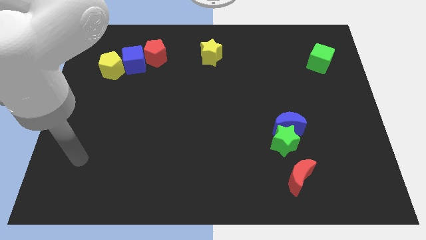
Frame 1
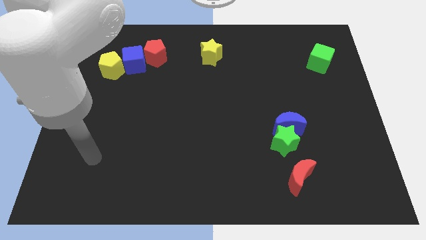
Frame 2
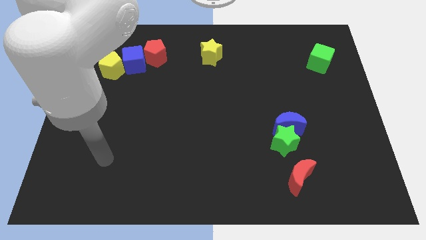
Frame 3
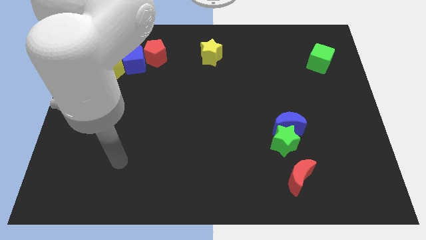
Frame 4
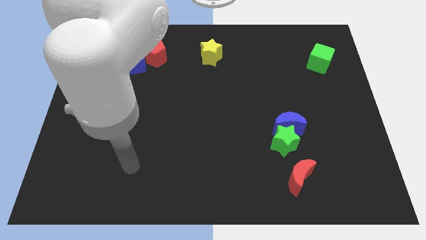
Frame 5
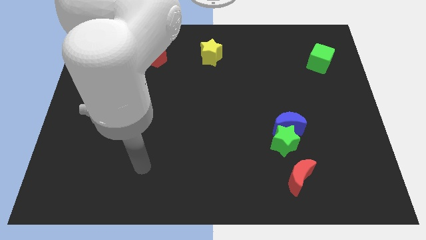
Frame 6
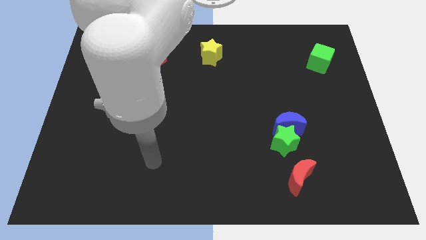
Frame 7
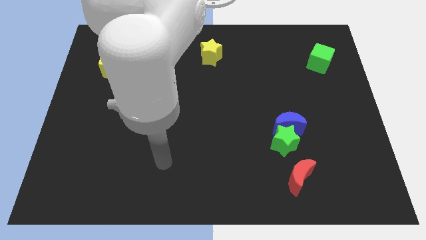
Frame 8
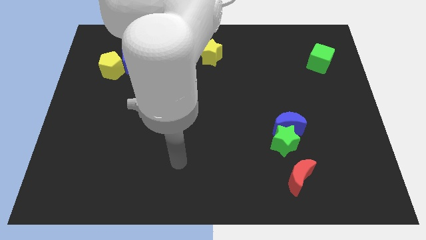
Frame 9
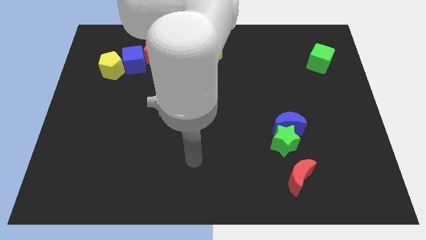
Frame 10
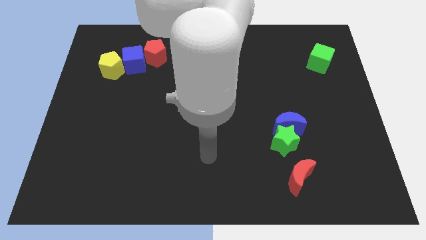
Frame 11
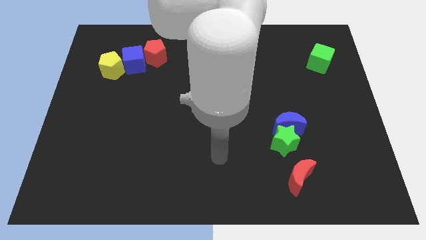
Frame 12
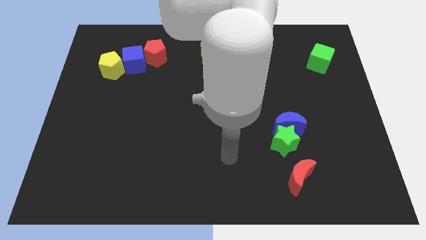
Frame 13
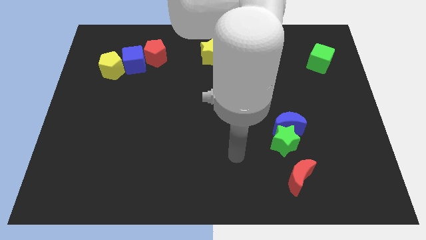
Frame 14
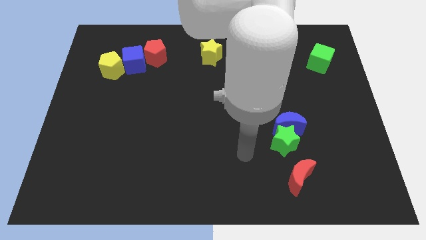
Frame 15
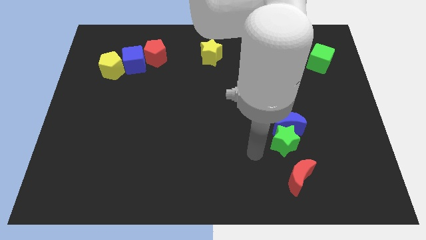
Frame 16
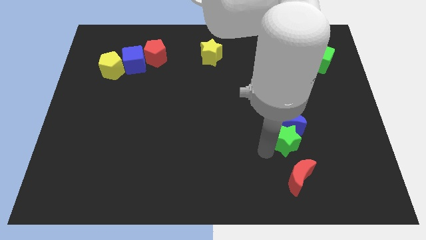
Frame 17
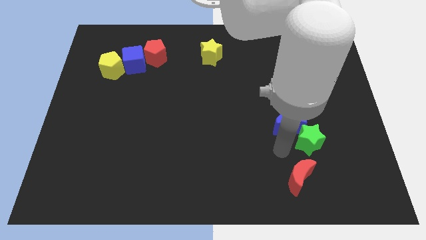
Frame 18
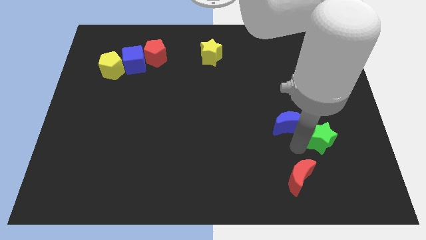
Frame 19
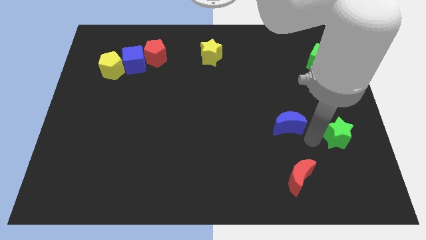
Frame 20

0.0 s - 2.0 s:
separate the blue moon from the green star

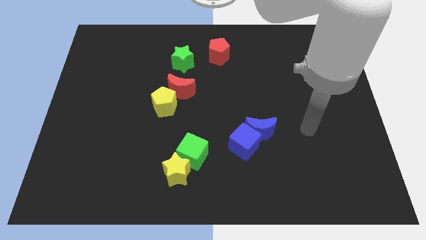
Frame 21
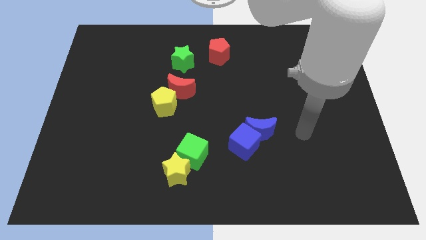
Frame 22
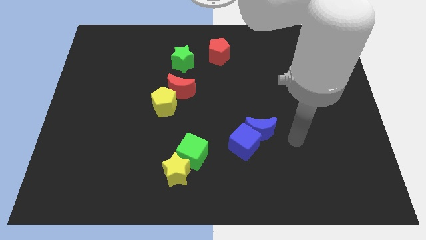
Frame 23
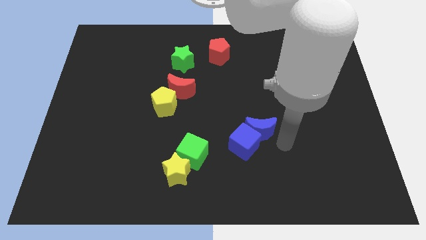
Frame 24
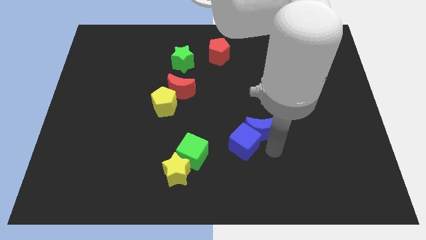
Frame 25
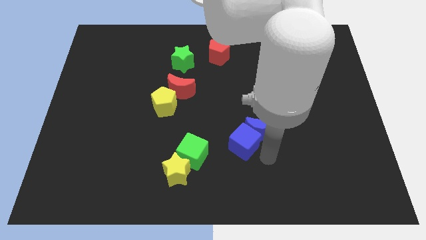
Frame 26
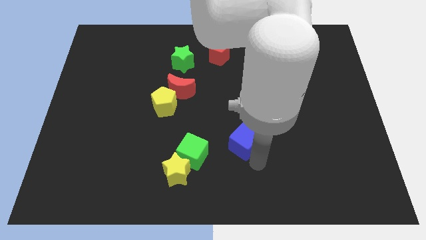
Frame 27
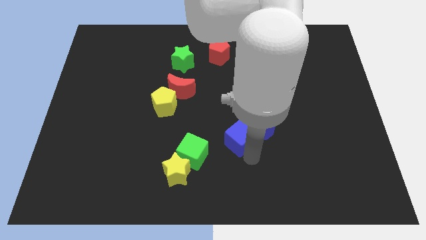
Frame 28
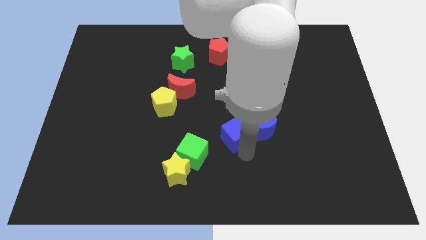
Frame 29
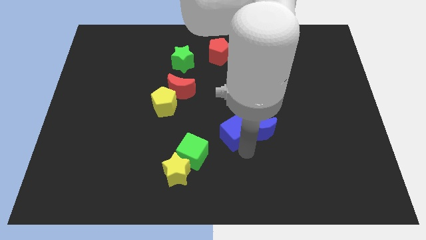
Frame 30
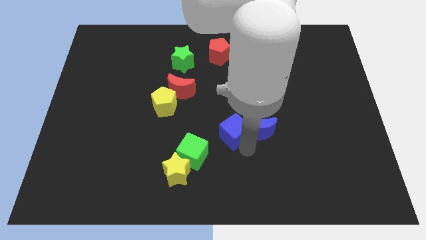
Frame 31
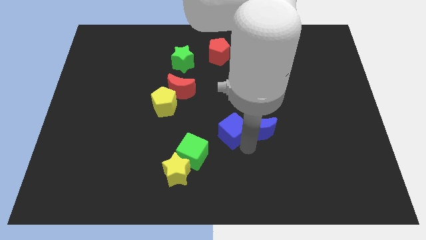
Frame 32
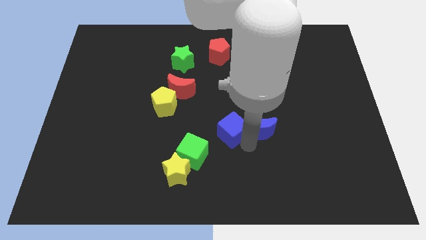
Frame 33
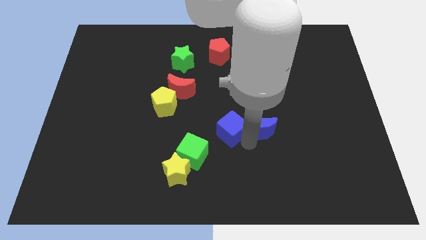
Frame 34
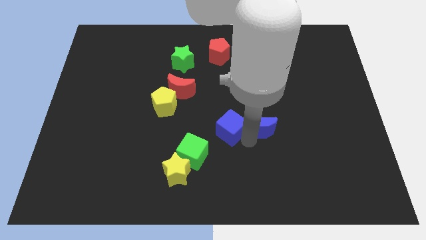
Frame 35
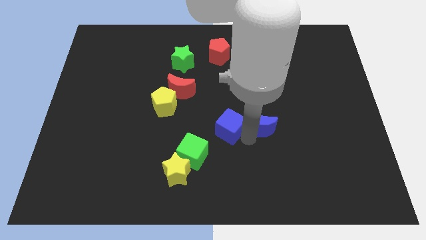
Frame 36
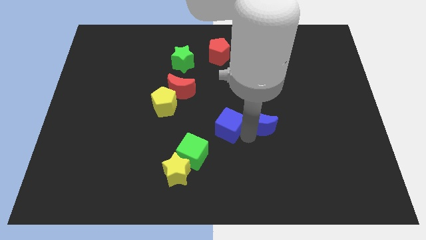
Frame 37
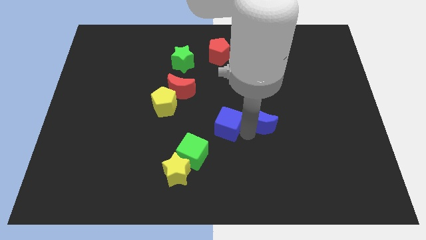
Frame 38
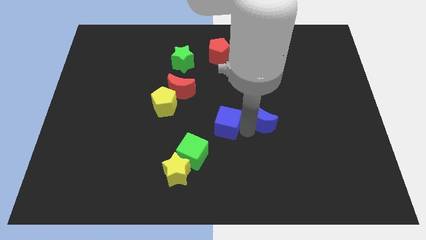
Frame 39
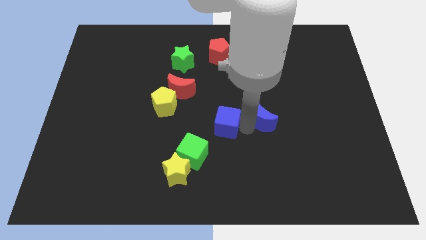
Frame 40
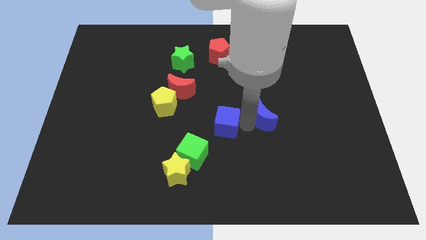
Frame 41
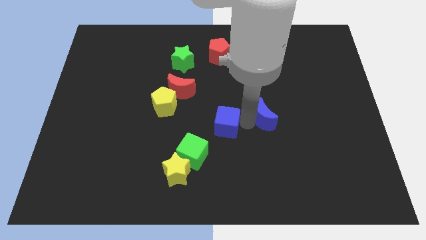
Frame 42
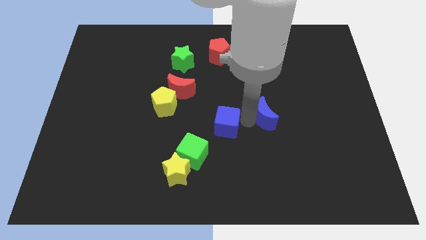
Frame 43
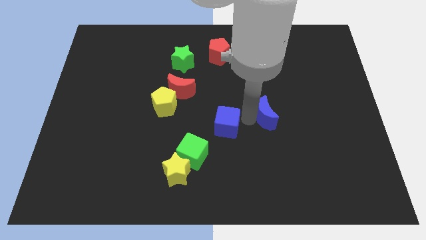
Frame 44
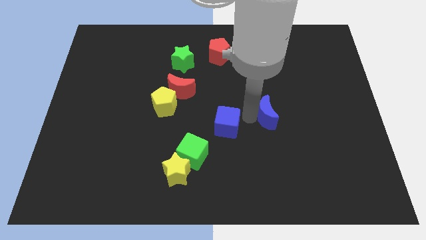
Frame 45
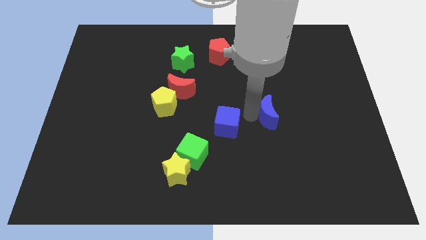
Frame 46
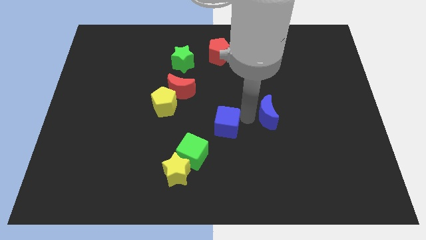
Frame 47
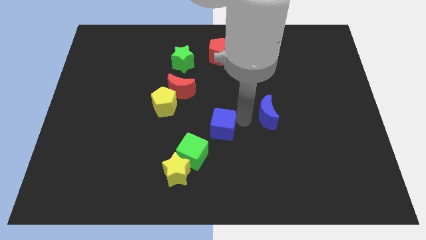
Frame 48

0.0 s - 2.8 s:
pull the blue moon apart from the blue cube

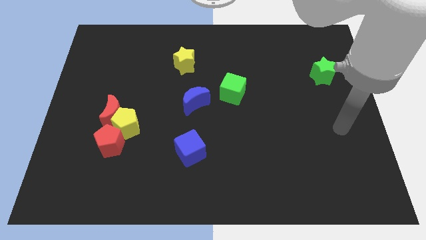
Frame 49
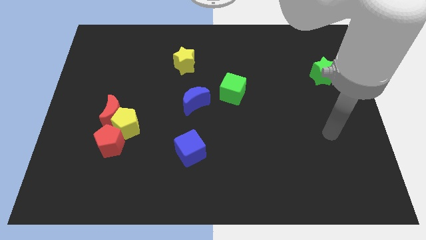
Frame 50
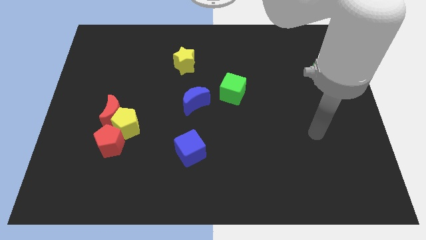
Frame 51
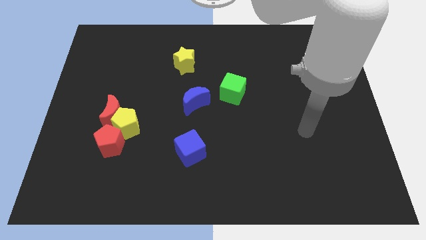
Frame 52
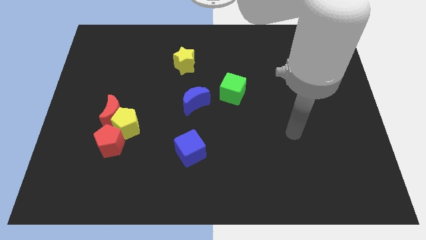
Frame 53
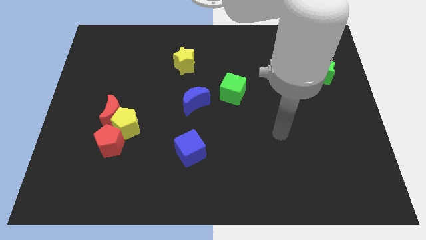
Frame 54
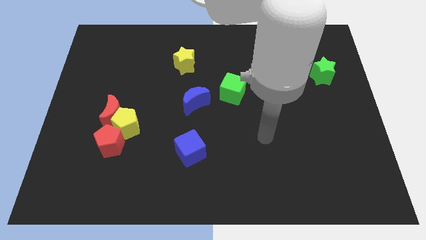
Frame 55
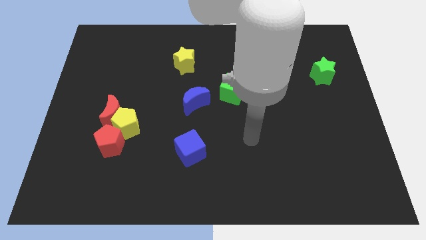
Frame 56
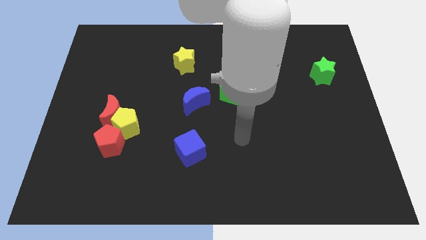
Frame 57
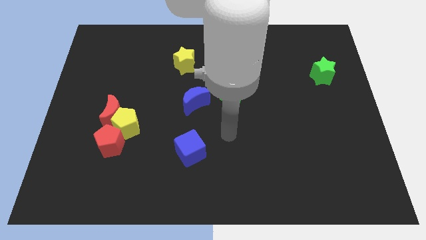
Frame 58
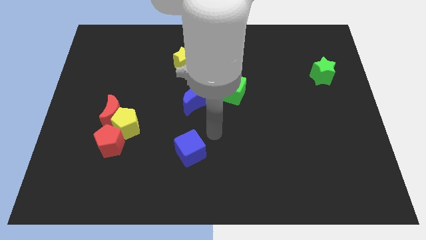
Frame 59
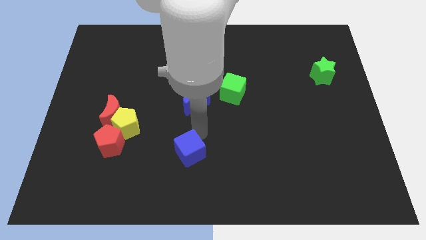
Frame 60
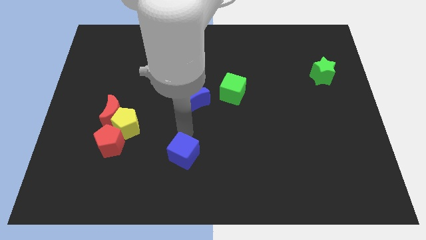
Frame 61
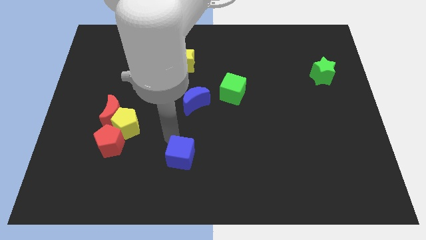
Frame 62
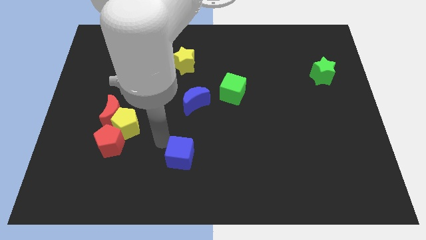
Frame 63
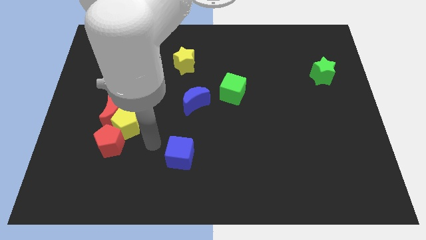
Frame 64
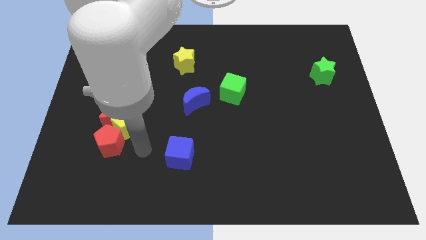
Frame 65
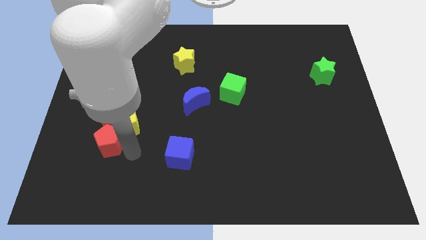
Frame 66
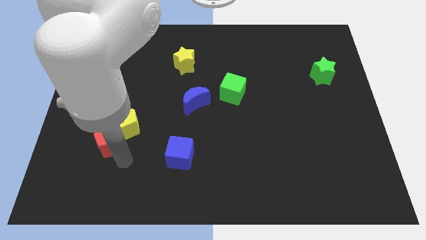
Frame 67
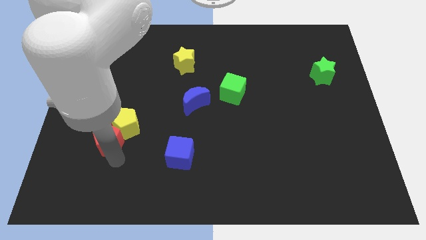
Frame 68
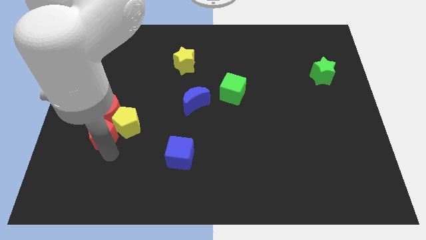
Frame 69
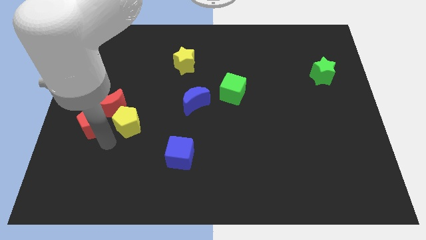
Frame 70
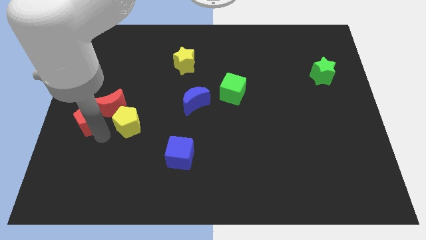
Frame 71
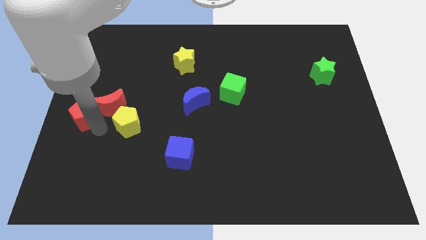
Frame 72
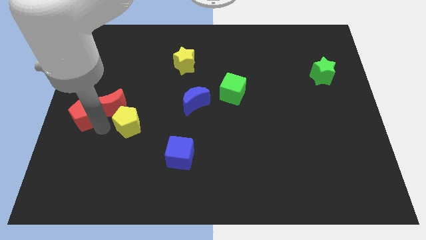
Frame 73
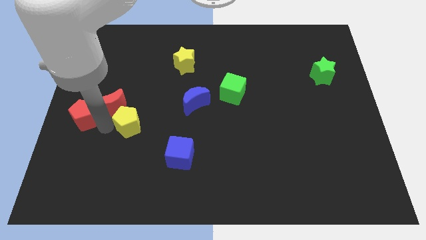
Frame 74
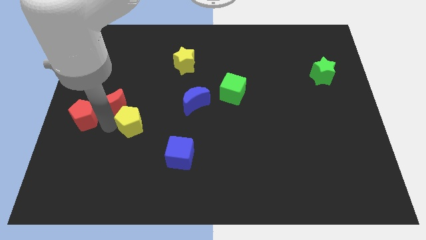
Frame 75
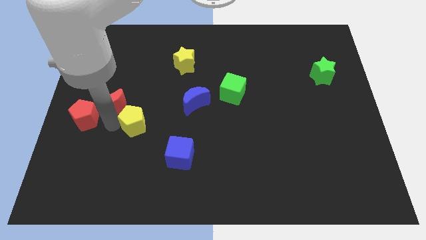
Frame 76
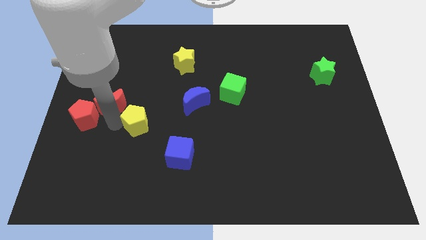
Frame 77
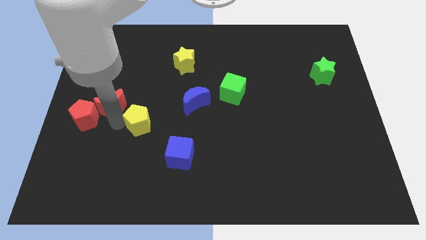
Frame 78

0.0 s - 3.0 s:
move the yellow pentagon away from the red moon and red pentagon

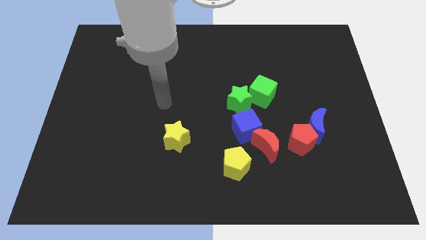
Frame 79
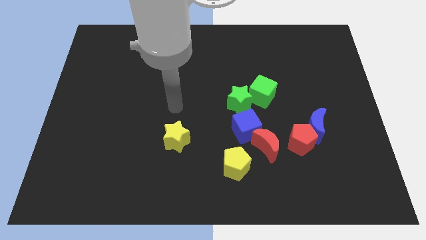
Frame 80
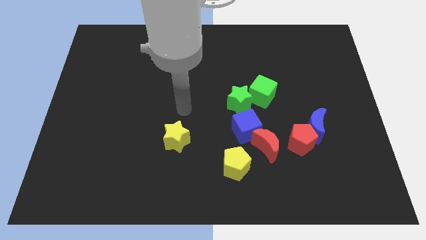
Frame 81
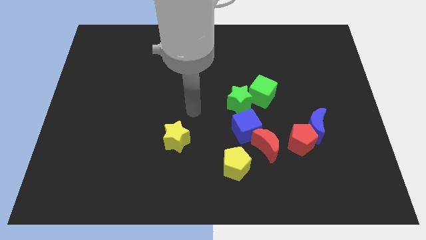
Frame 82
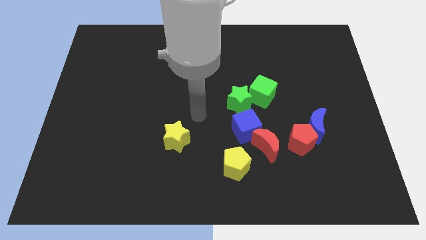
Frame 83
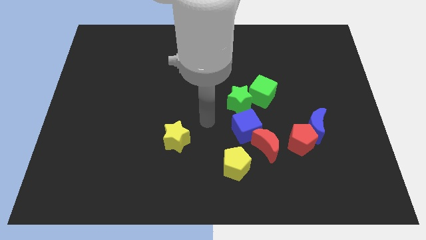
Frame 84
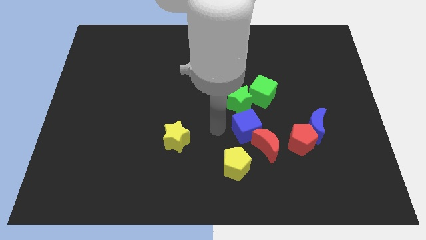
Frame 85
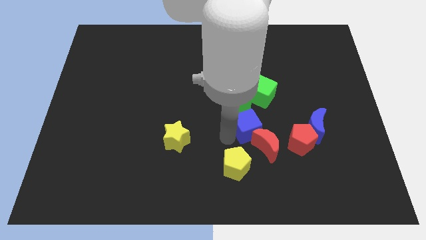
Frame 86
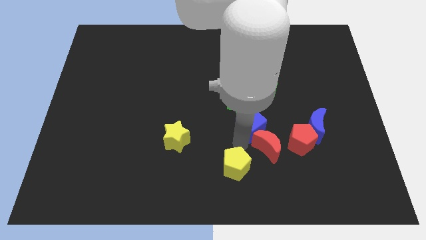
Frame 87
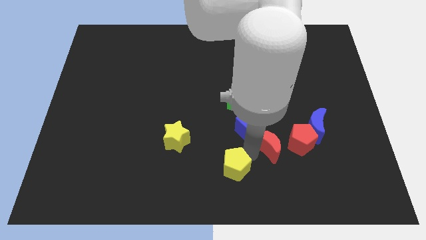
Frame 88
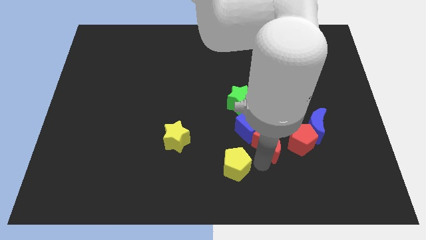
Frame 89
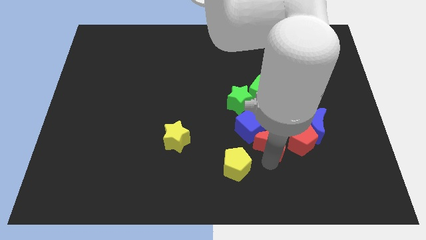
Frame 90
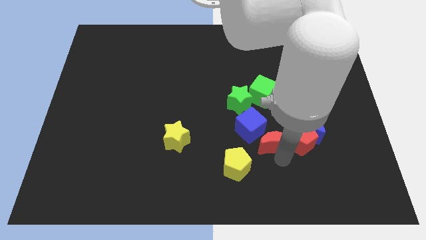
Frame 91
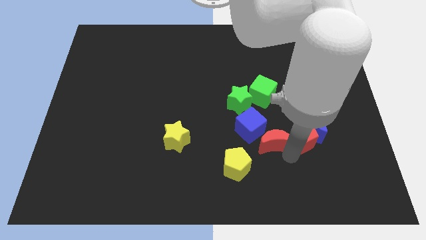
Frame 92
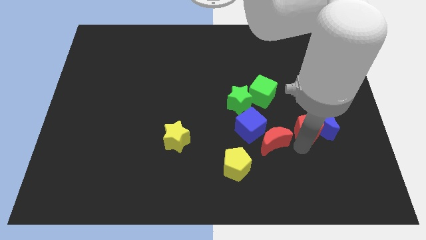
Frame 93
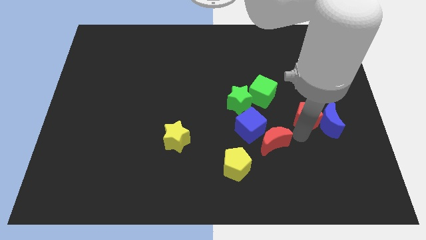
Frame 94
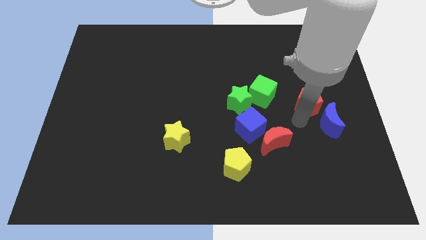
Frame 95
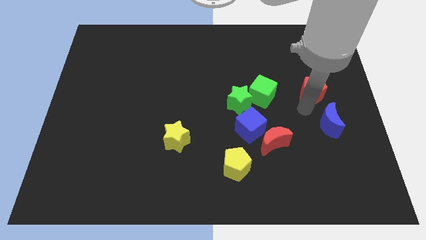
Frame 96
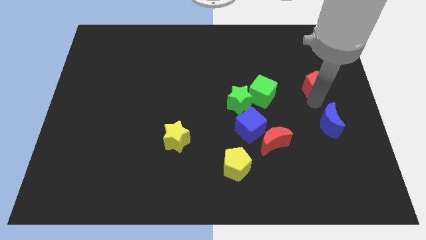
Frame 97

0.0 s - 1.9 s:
separate the blue moon from the red pentagon
